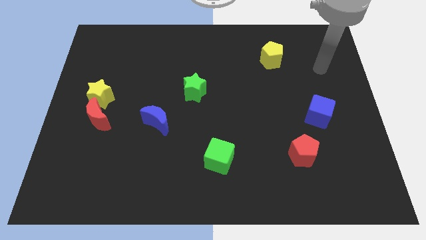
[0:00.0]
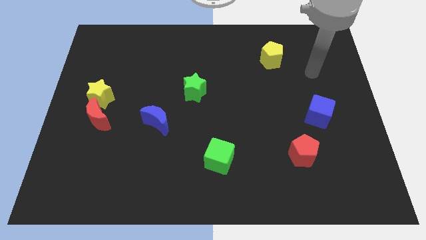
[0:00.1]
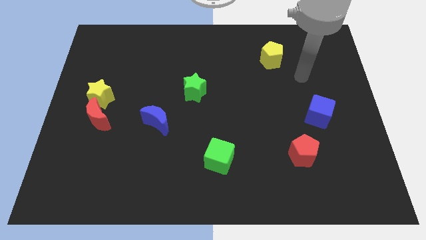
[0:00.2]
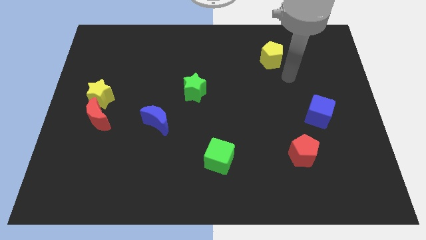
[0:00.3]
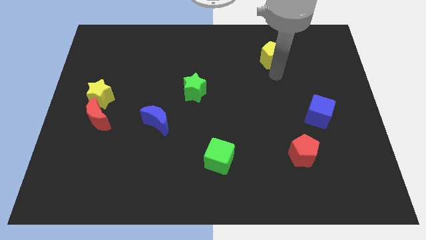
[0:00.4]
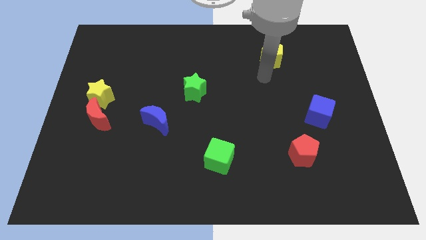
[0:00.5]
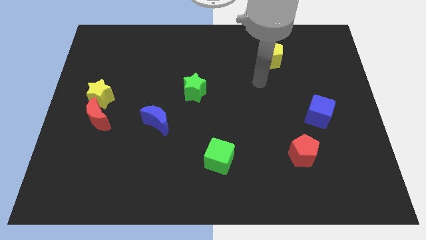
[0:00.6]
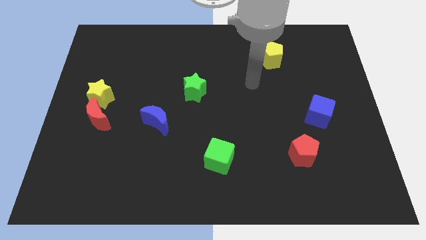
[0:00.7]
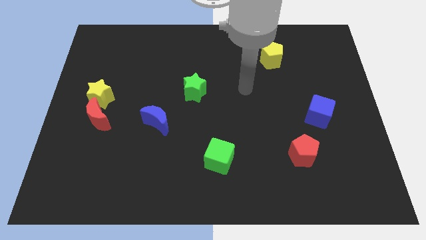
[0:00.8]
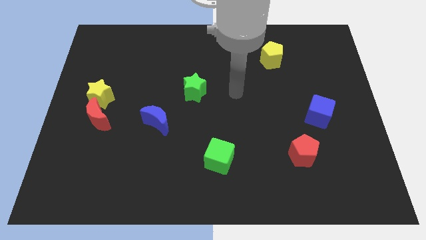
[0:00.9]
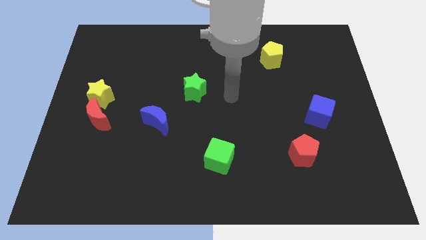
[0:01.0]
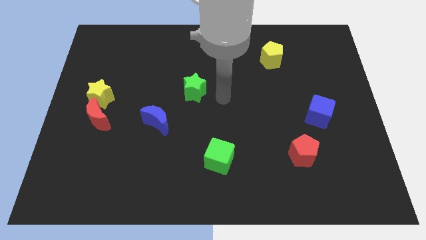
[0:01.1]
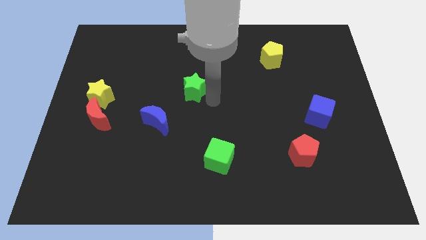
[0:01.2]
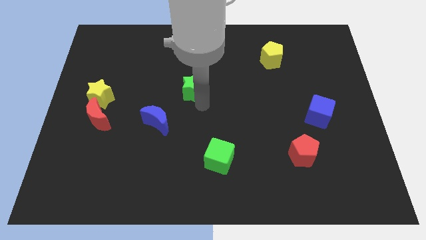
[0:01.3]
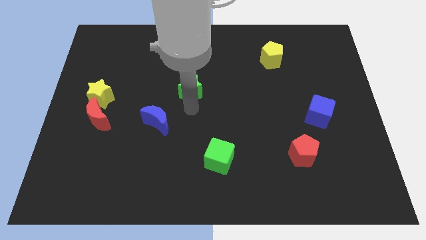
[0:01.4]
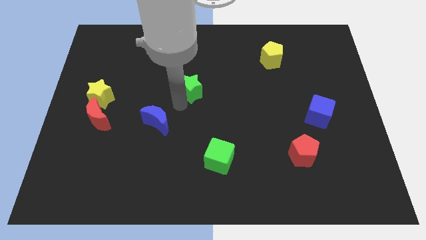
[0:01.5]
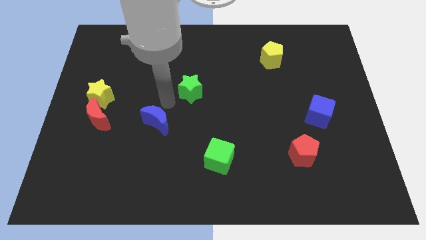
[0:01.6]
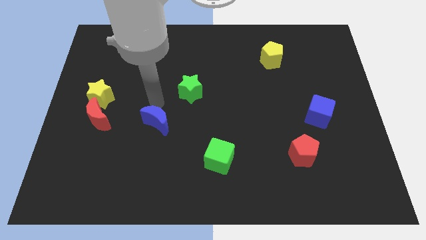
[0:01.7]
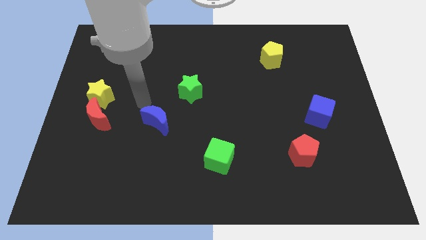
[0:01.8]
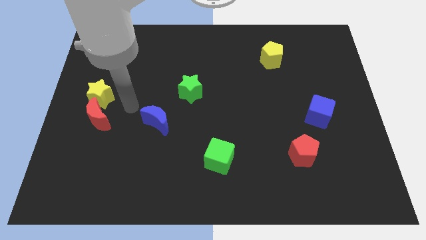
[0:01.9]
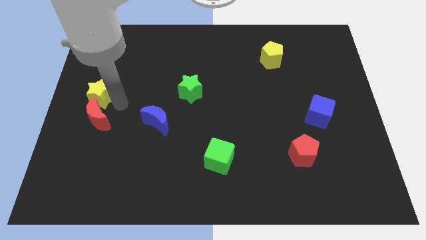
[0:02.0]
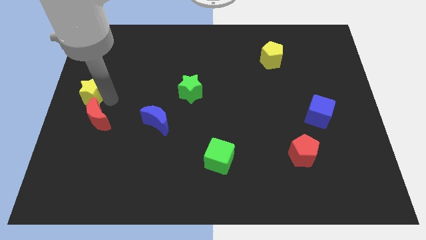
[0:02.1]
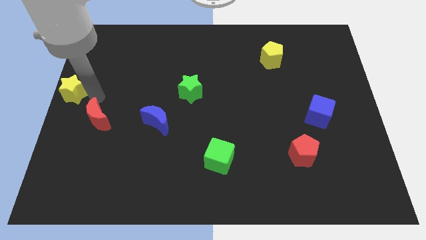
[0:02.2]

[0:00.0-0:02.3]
move the red moon away from the yellow star

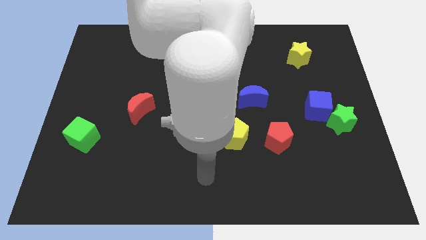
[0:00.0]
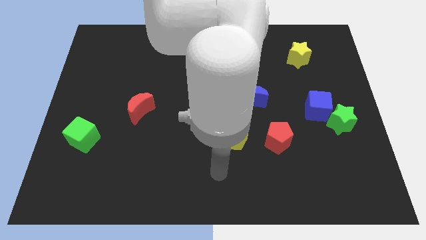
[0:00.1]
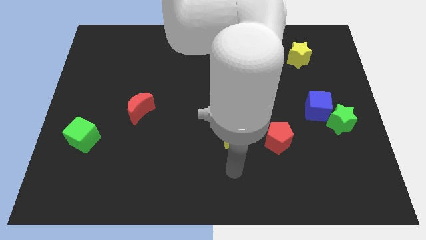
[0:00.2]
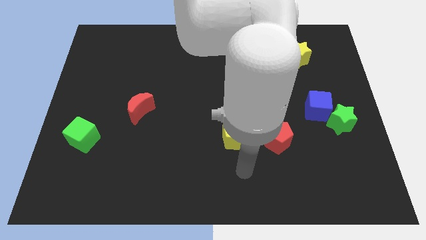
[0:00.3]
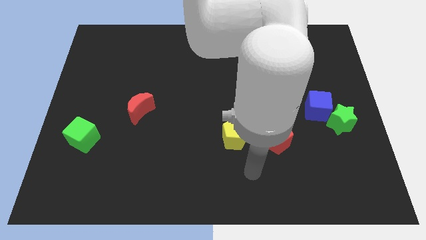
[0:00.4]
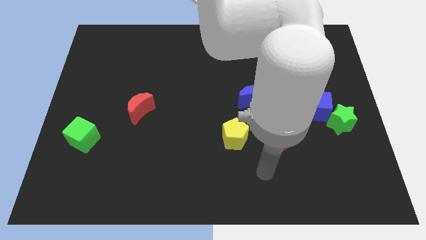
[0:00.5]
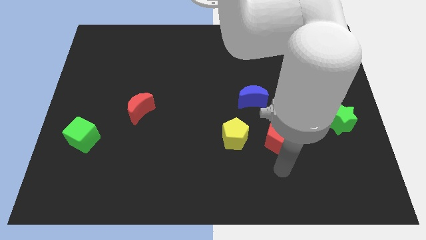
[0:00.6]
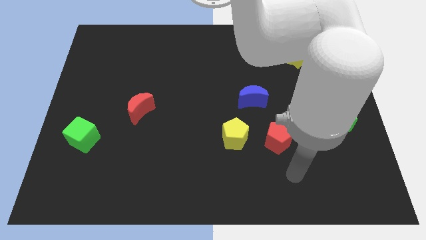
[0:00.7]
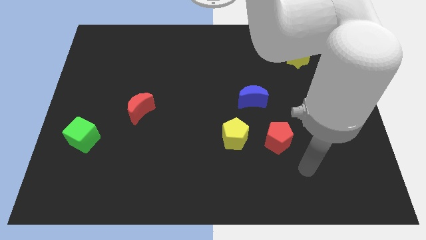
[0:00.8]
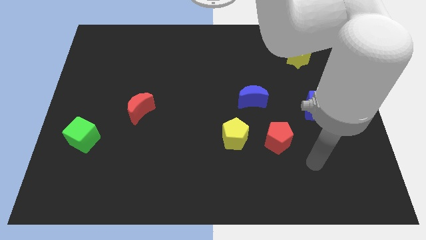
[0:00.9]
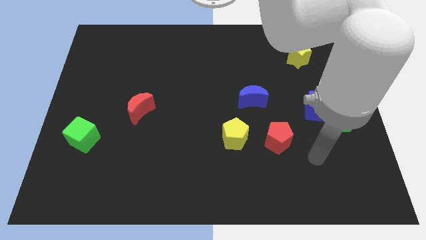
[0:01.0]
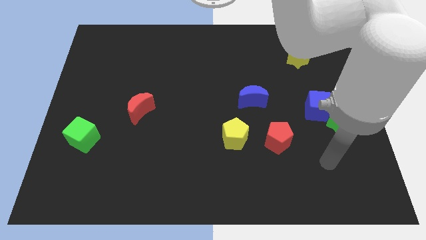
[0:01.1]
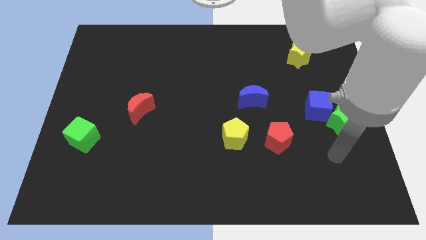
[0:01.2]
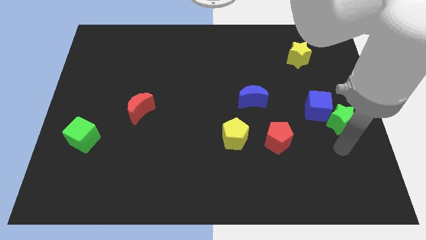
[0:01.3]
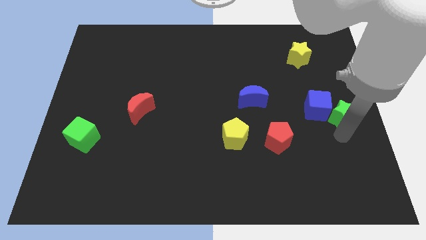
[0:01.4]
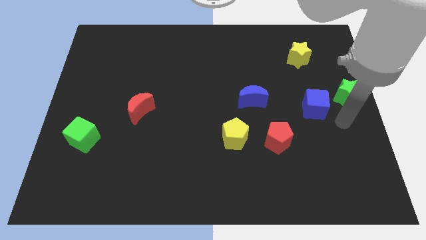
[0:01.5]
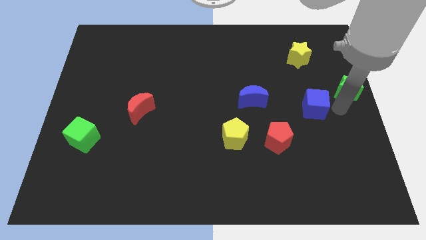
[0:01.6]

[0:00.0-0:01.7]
pull the blue cube apart from the green star

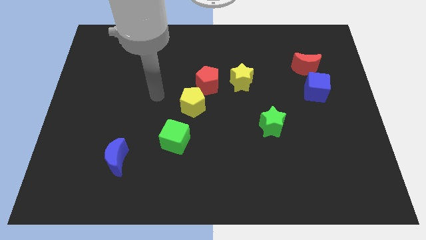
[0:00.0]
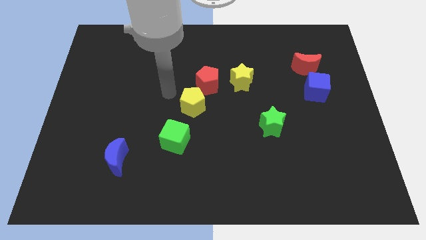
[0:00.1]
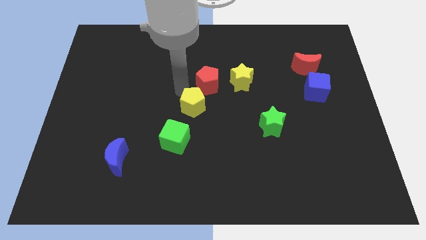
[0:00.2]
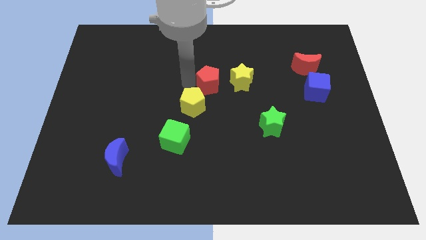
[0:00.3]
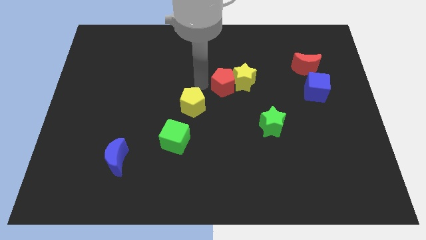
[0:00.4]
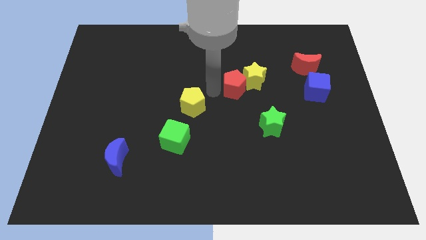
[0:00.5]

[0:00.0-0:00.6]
separate the yellow pentagon from the red pentagon

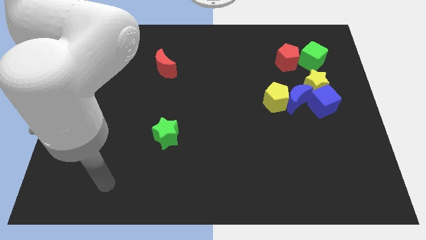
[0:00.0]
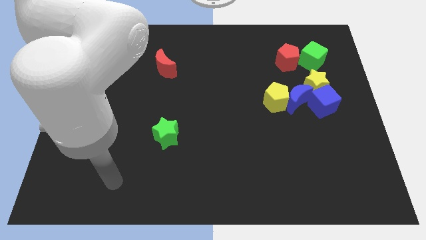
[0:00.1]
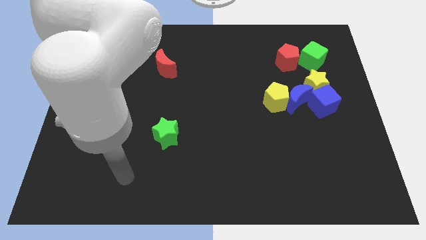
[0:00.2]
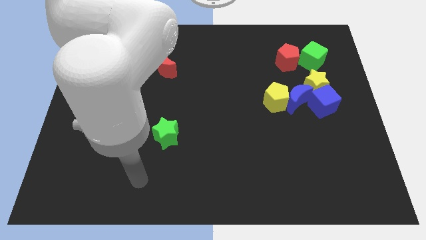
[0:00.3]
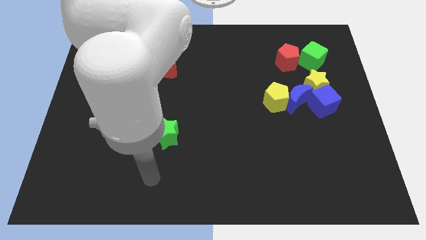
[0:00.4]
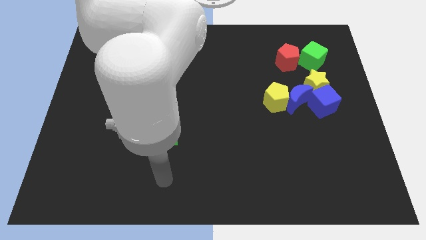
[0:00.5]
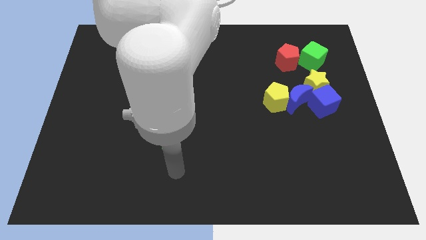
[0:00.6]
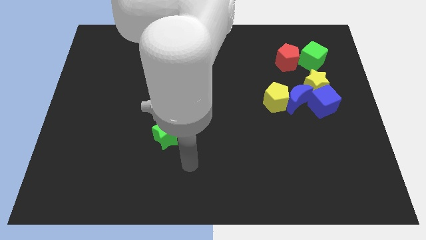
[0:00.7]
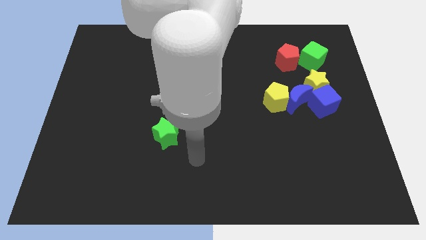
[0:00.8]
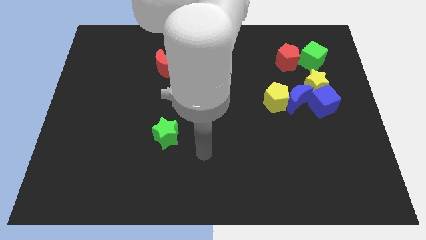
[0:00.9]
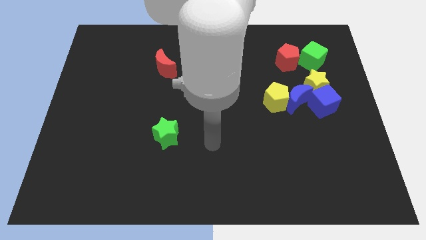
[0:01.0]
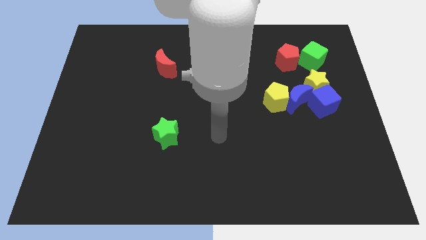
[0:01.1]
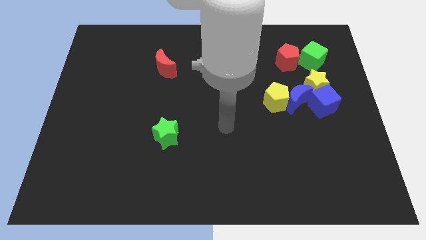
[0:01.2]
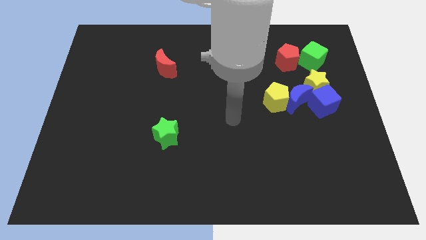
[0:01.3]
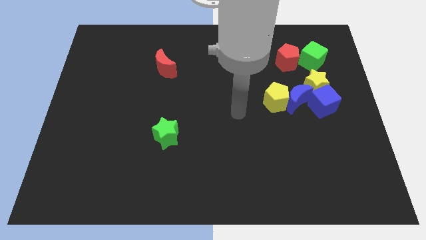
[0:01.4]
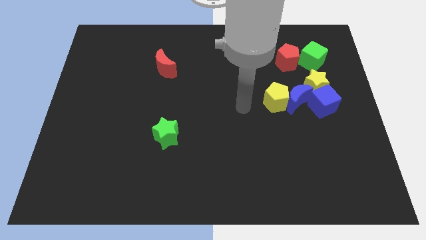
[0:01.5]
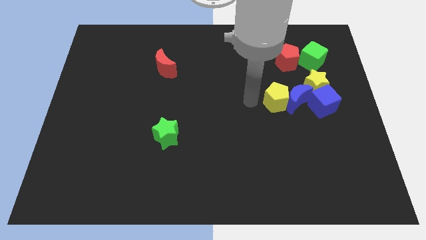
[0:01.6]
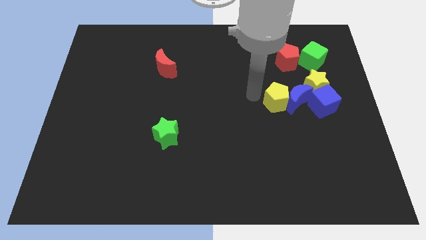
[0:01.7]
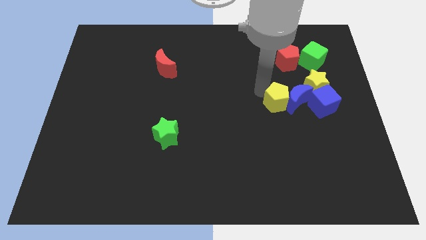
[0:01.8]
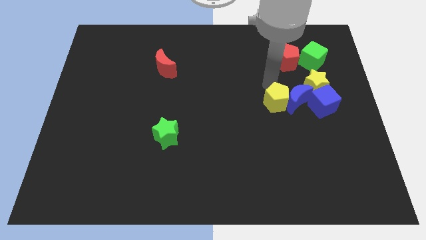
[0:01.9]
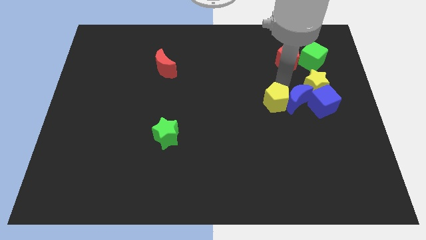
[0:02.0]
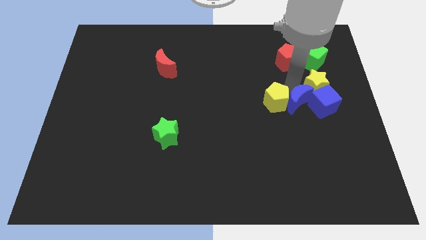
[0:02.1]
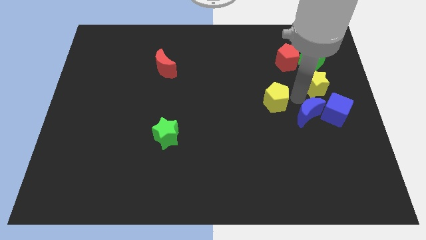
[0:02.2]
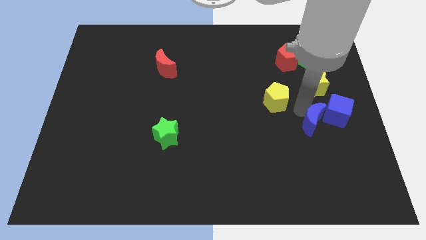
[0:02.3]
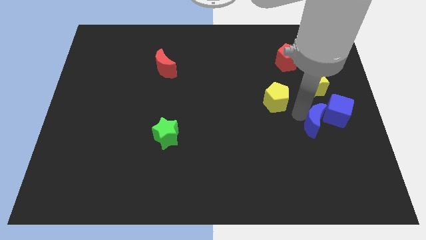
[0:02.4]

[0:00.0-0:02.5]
pull the yellow pentagon apart from the blue moon

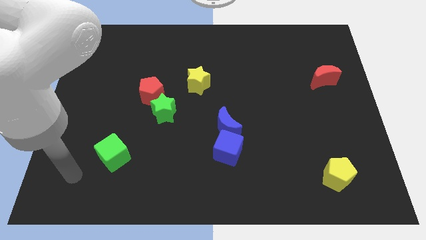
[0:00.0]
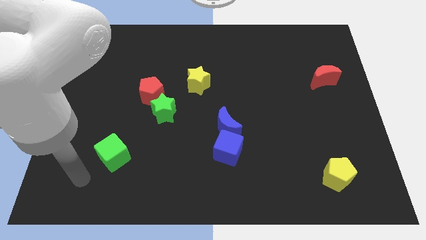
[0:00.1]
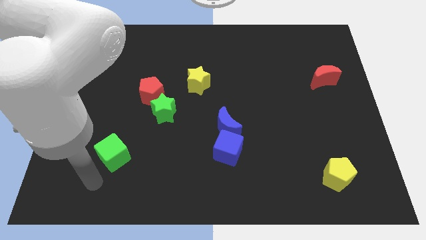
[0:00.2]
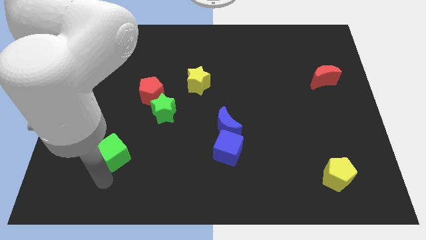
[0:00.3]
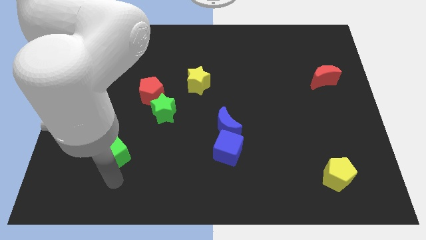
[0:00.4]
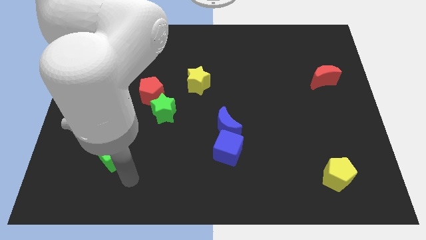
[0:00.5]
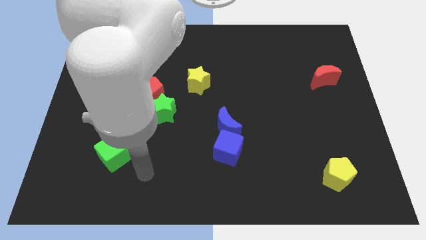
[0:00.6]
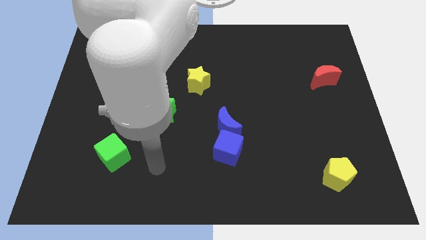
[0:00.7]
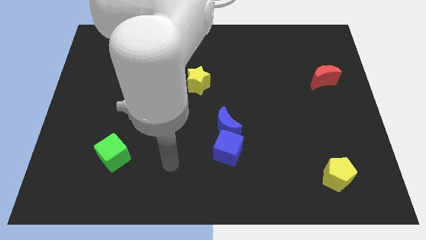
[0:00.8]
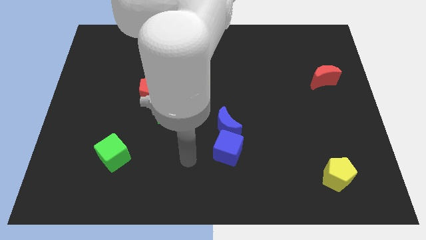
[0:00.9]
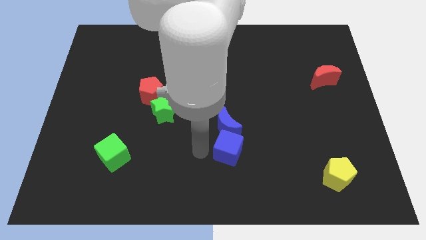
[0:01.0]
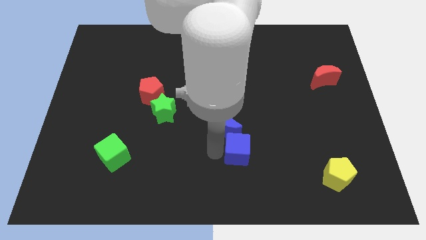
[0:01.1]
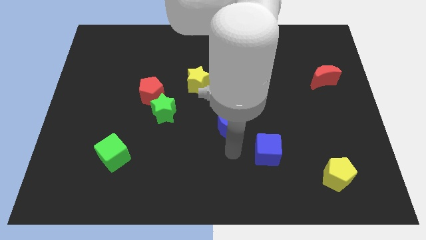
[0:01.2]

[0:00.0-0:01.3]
move the blue moon away from the blue cube

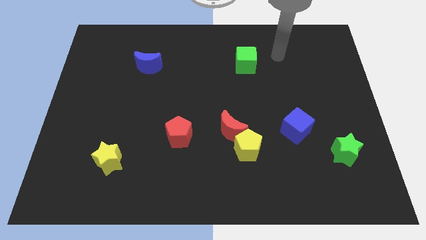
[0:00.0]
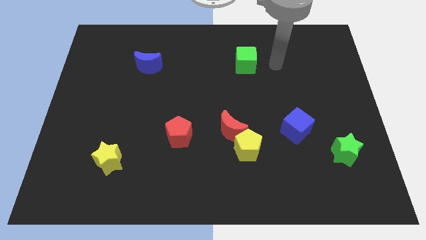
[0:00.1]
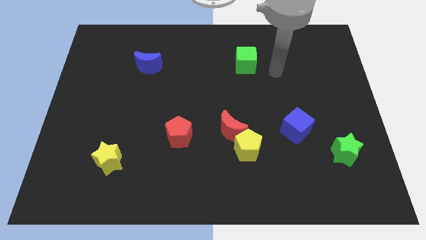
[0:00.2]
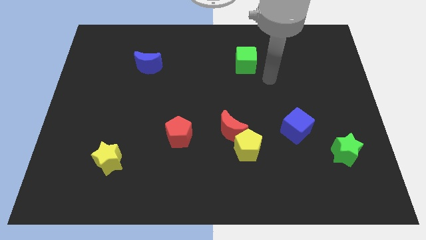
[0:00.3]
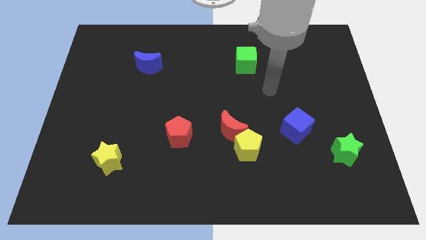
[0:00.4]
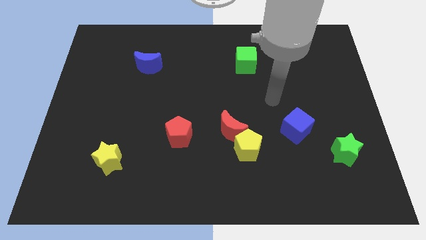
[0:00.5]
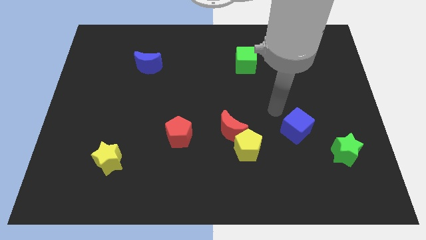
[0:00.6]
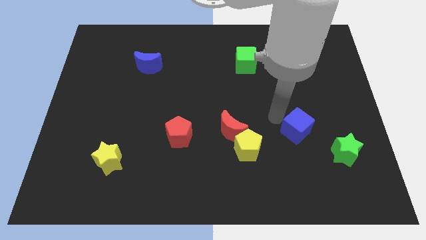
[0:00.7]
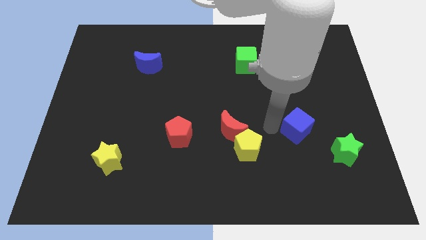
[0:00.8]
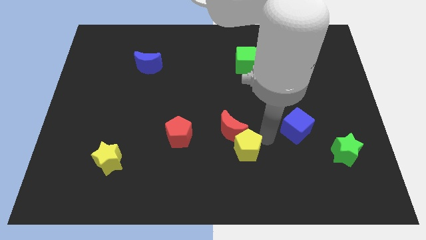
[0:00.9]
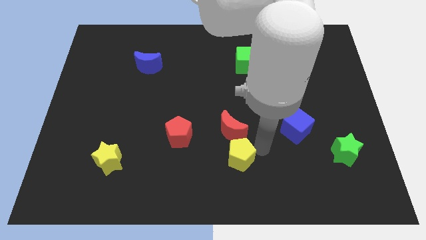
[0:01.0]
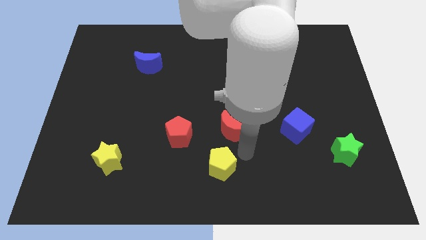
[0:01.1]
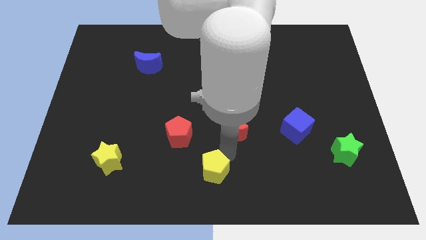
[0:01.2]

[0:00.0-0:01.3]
pull the red moon apart from the yellow pentagon
